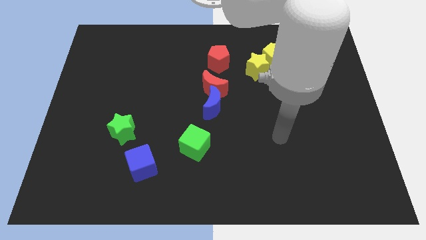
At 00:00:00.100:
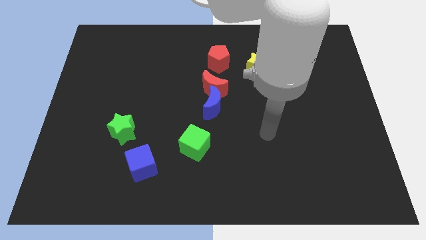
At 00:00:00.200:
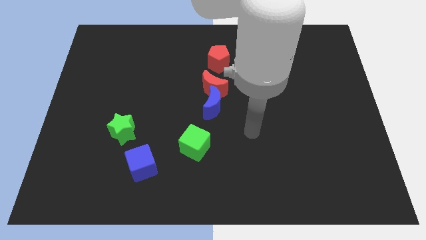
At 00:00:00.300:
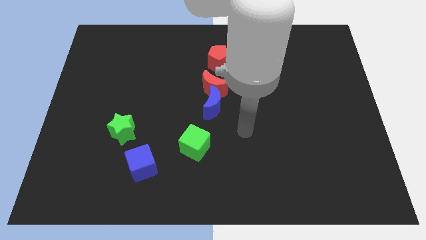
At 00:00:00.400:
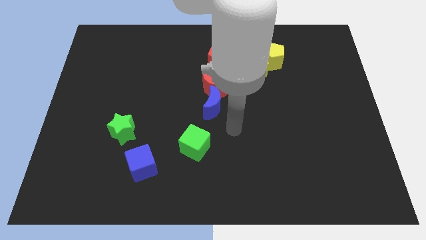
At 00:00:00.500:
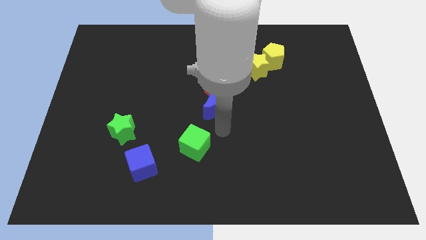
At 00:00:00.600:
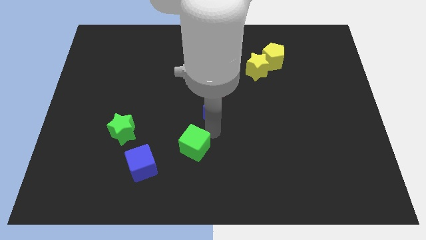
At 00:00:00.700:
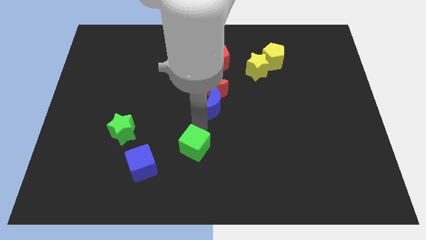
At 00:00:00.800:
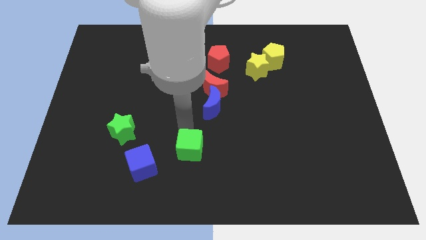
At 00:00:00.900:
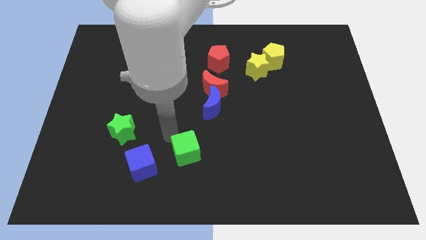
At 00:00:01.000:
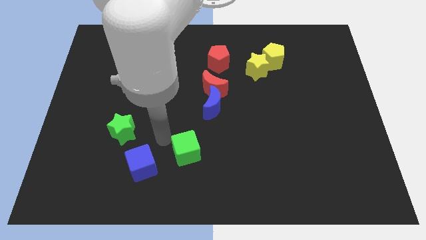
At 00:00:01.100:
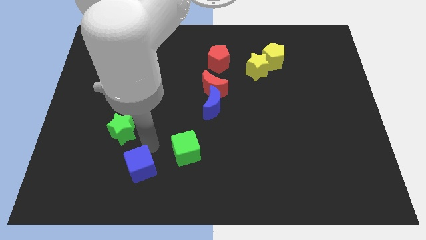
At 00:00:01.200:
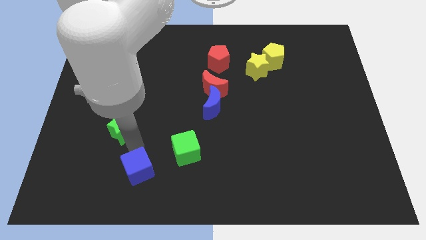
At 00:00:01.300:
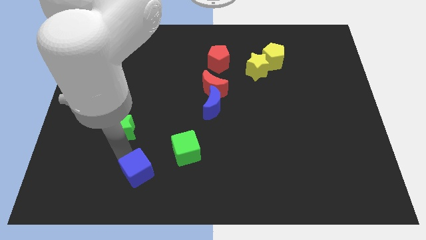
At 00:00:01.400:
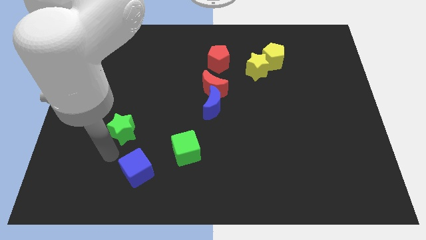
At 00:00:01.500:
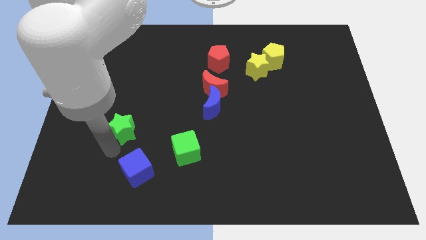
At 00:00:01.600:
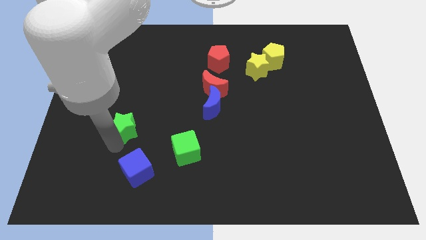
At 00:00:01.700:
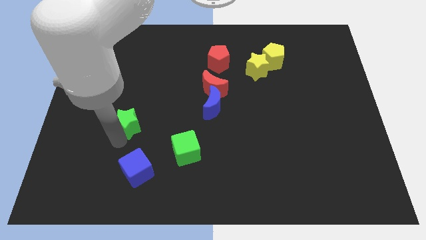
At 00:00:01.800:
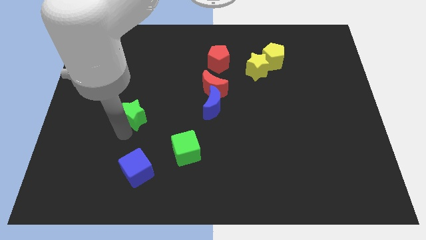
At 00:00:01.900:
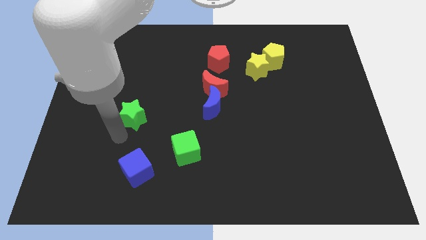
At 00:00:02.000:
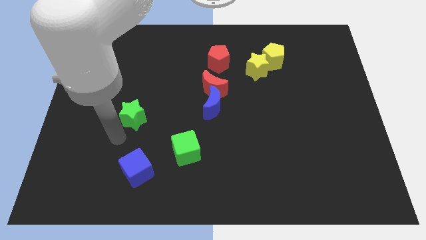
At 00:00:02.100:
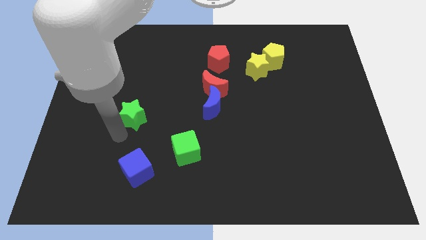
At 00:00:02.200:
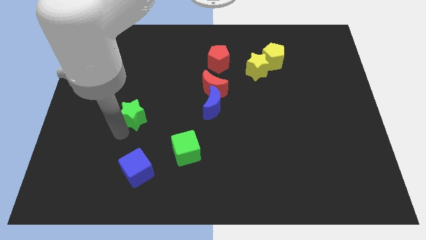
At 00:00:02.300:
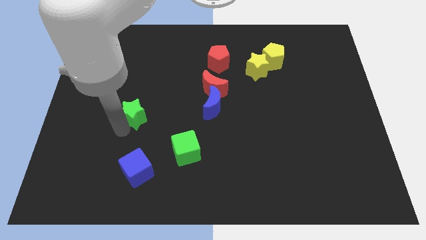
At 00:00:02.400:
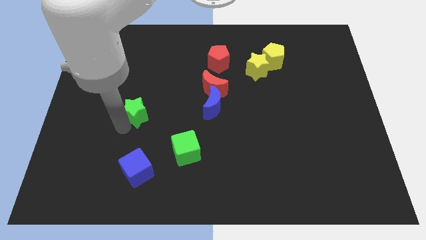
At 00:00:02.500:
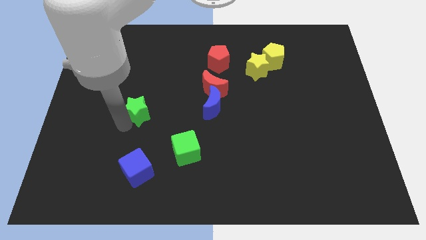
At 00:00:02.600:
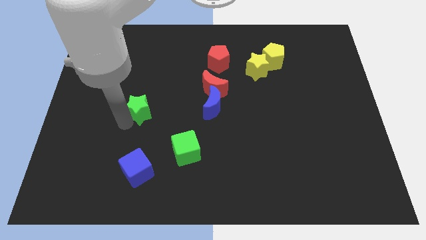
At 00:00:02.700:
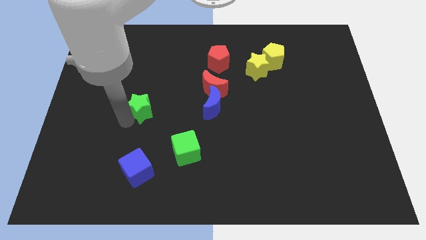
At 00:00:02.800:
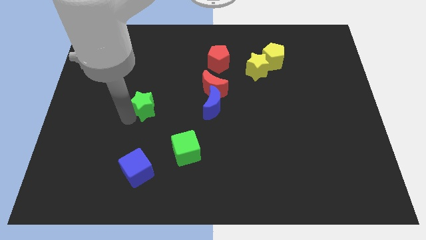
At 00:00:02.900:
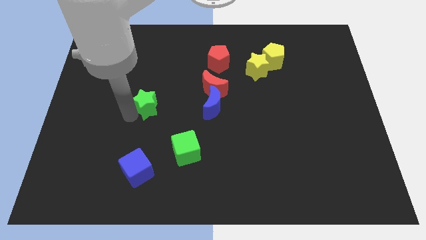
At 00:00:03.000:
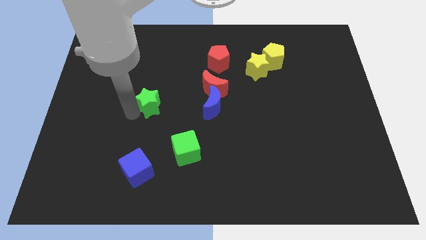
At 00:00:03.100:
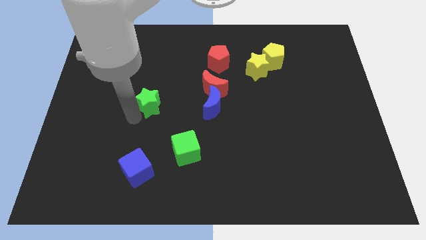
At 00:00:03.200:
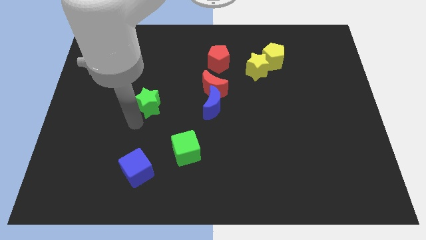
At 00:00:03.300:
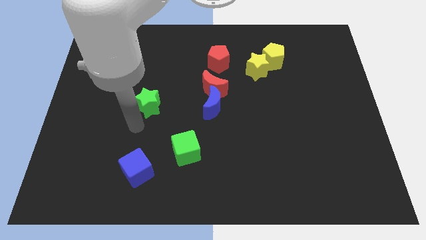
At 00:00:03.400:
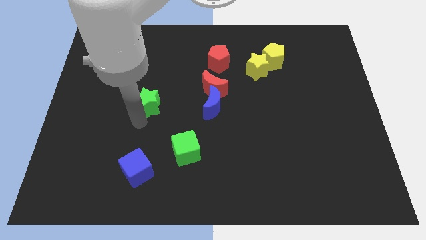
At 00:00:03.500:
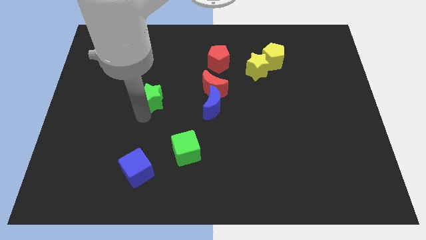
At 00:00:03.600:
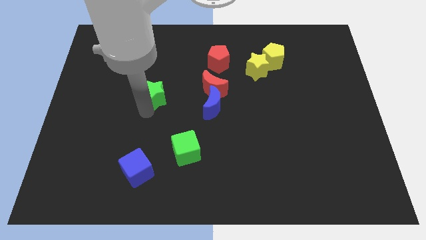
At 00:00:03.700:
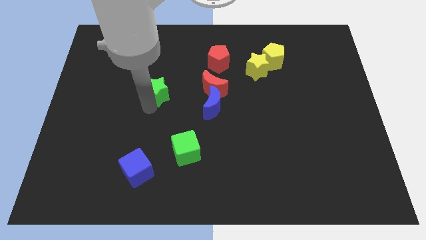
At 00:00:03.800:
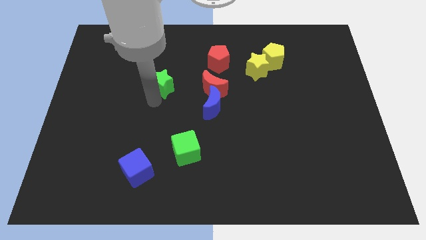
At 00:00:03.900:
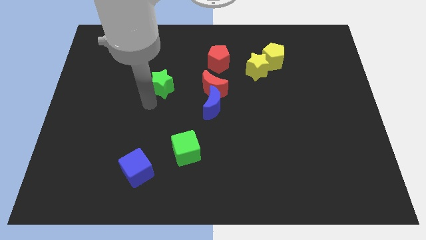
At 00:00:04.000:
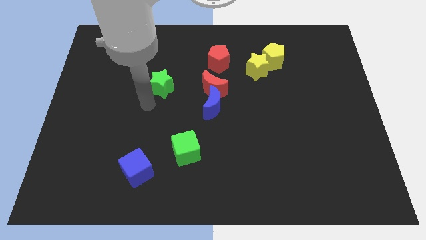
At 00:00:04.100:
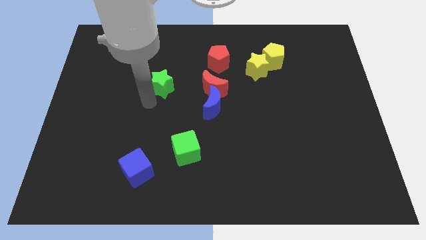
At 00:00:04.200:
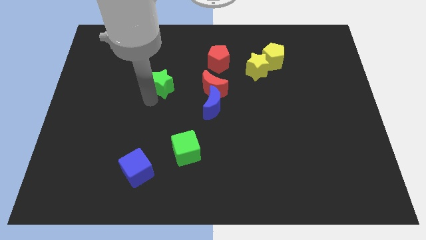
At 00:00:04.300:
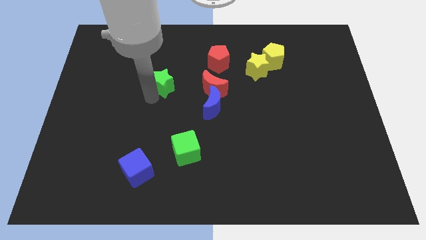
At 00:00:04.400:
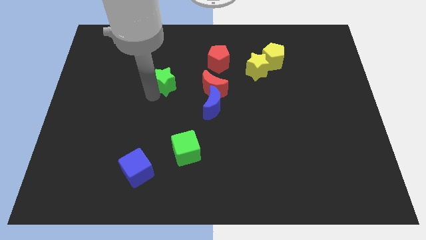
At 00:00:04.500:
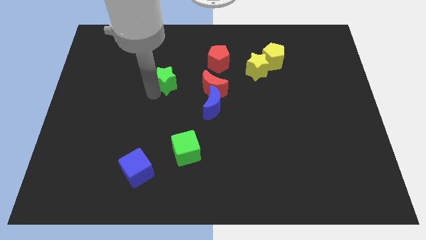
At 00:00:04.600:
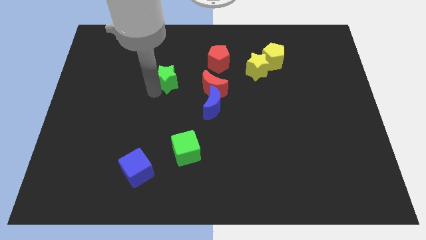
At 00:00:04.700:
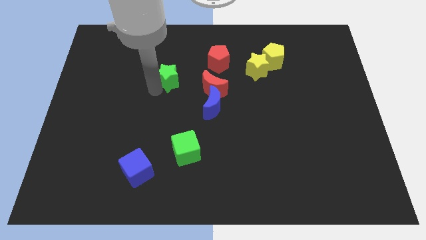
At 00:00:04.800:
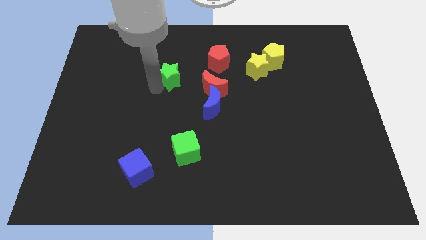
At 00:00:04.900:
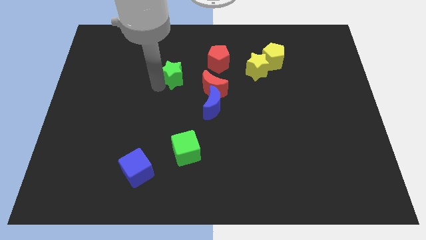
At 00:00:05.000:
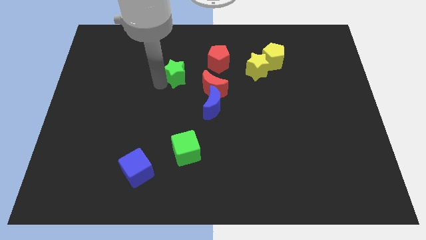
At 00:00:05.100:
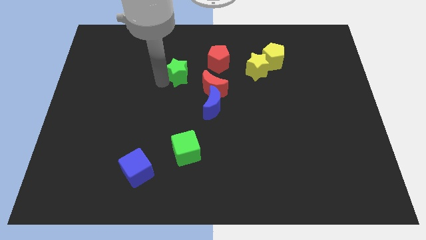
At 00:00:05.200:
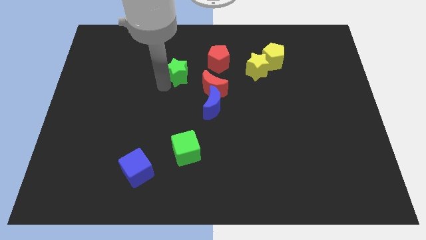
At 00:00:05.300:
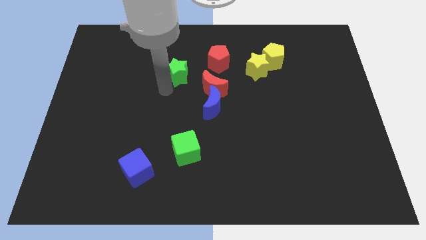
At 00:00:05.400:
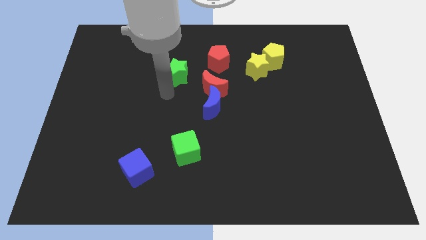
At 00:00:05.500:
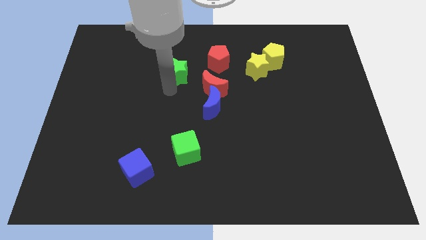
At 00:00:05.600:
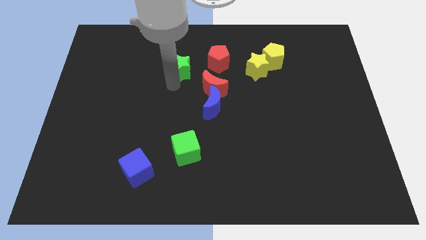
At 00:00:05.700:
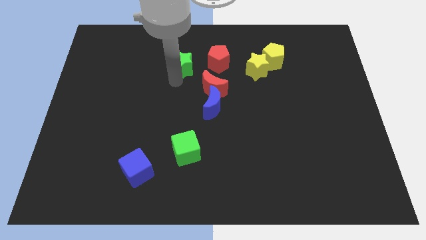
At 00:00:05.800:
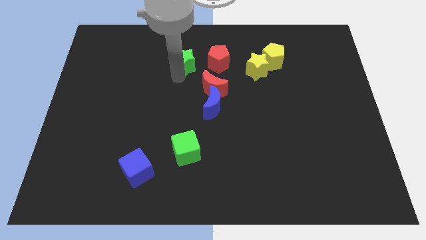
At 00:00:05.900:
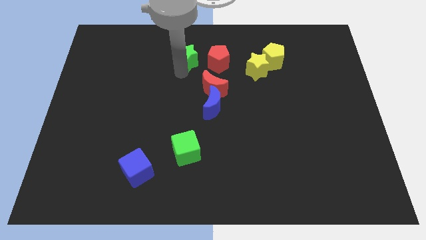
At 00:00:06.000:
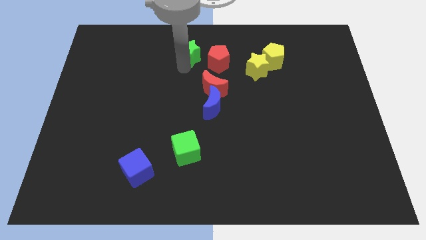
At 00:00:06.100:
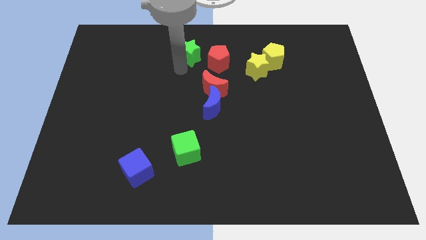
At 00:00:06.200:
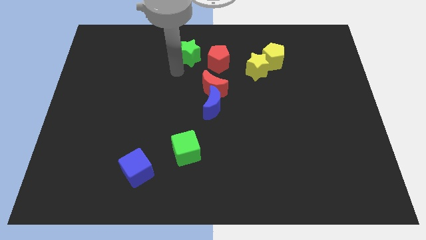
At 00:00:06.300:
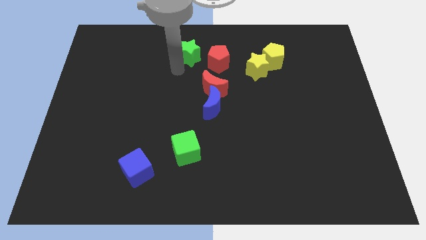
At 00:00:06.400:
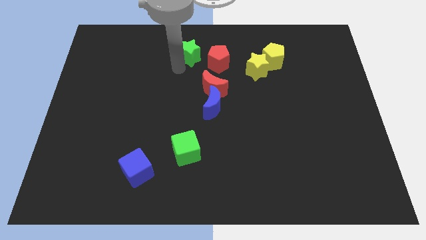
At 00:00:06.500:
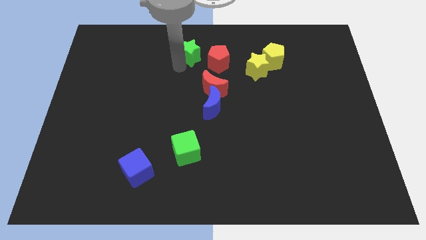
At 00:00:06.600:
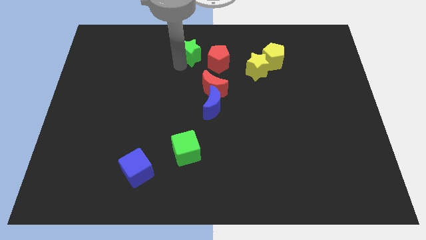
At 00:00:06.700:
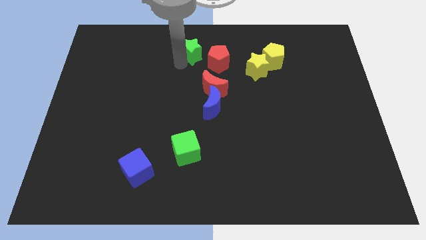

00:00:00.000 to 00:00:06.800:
push the green star to the towards your base
